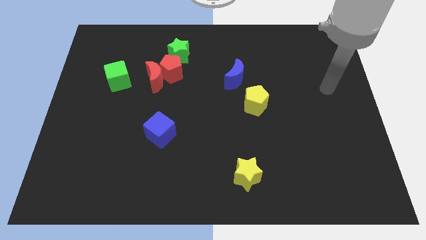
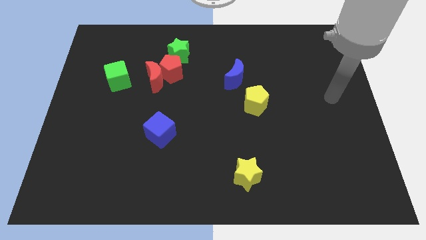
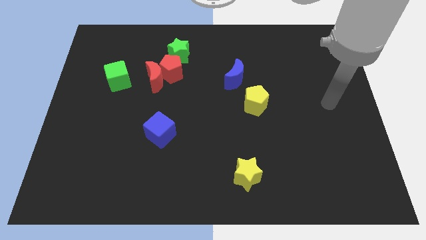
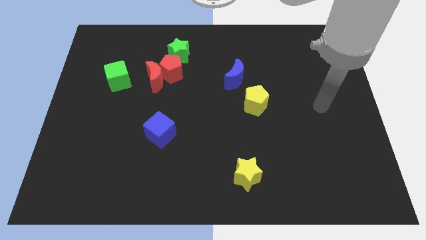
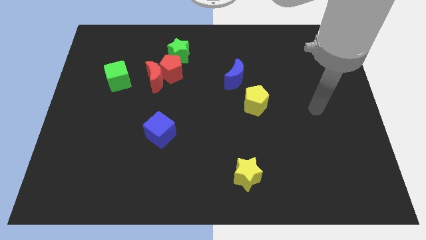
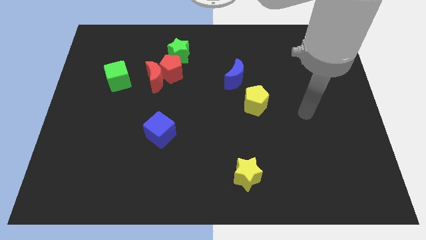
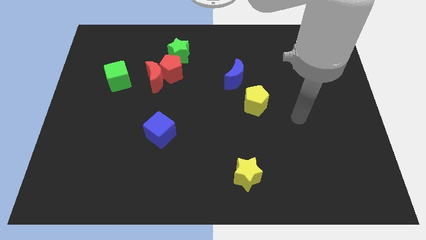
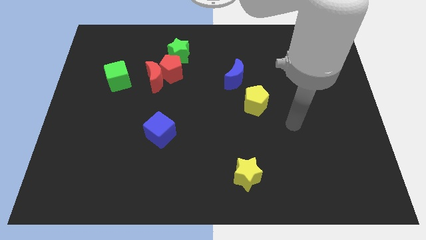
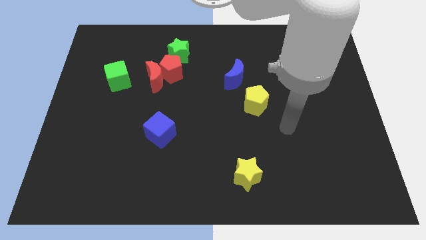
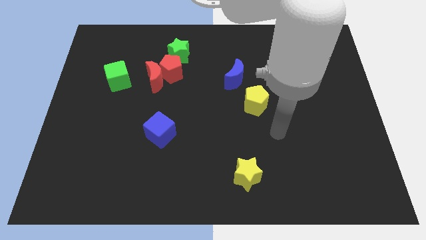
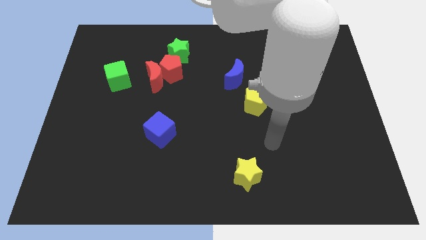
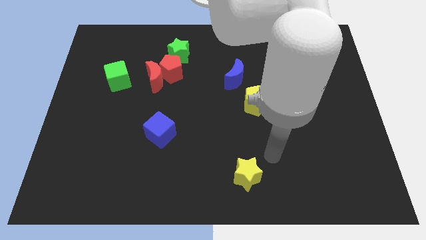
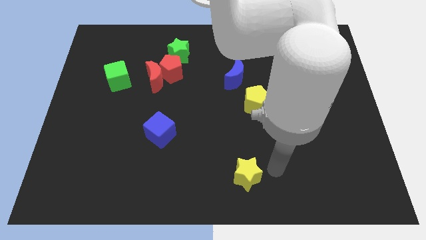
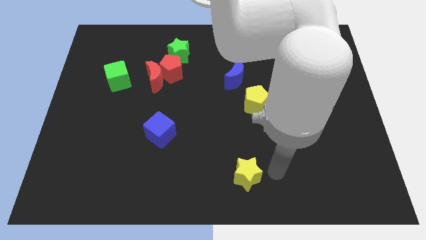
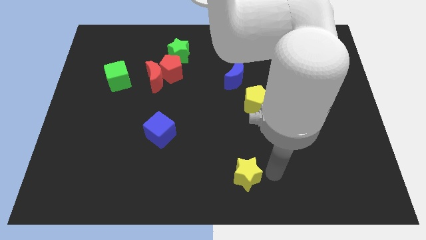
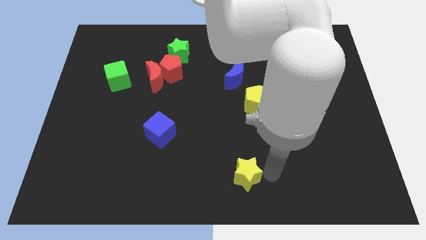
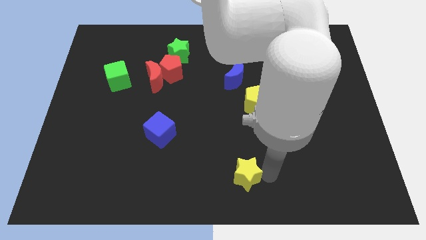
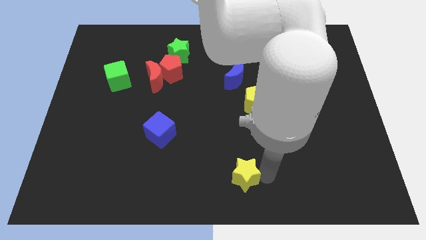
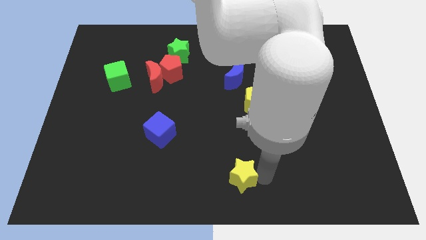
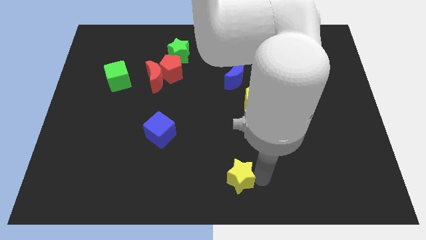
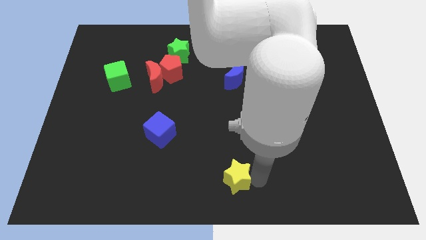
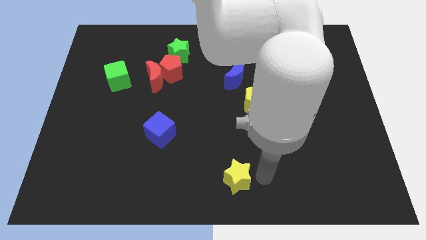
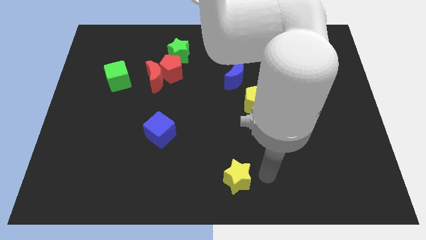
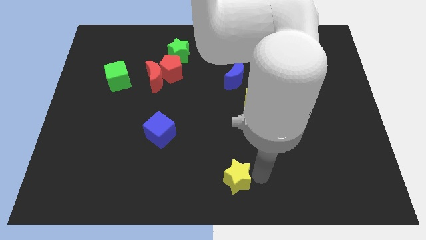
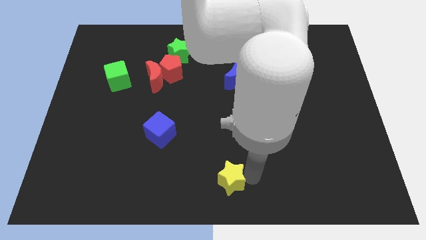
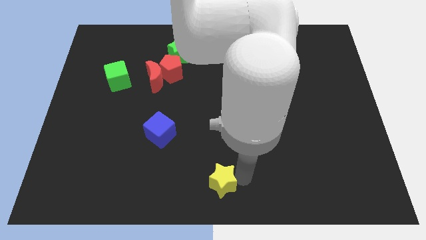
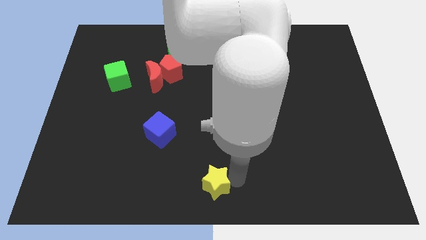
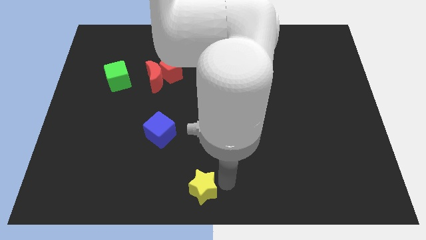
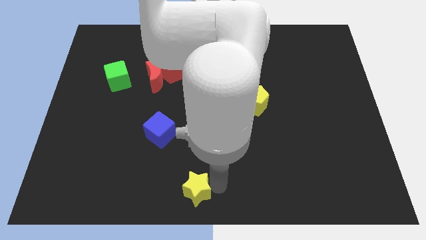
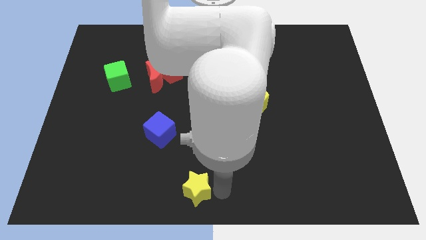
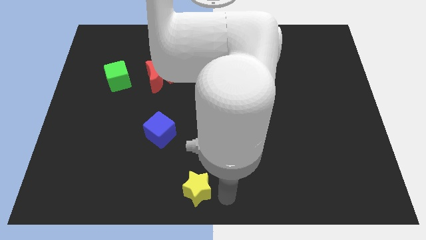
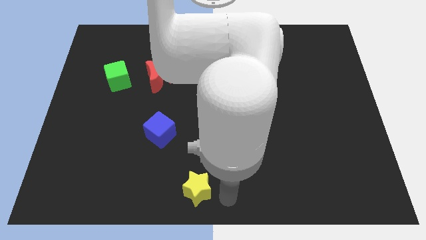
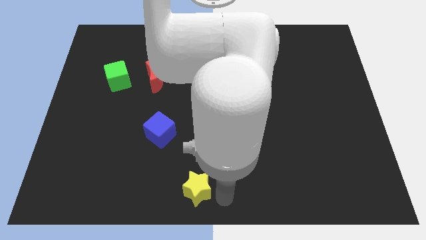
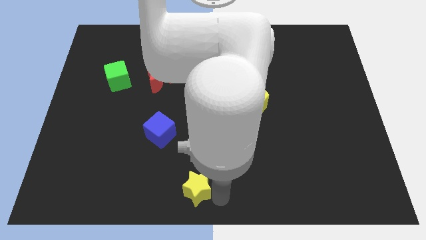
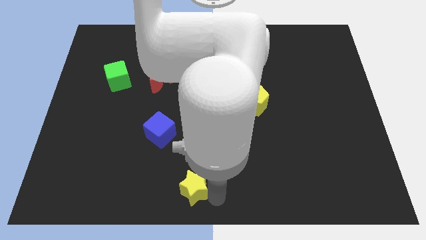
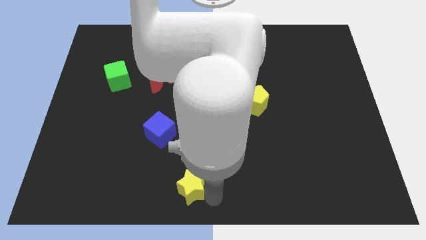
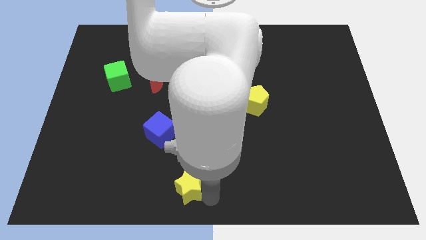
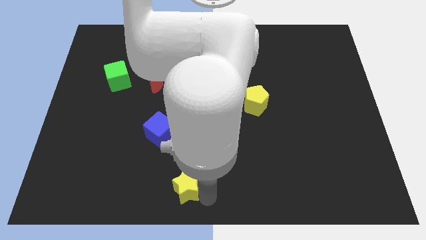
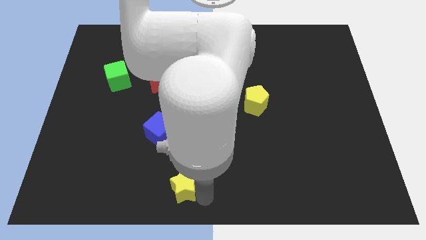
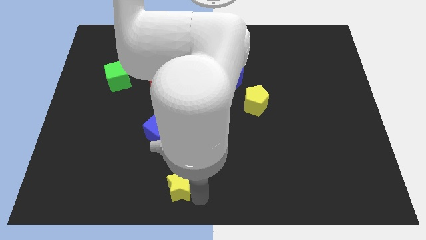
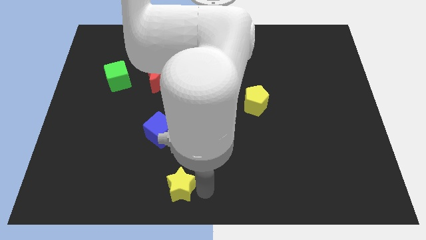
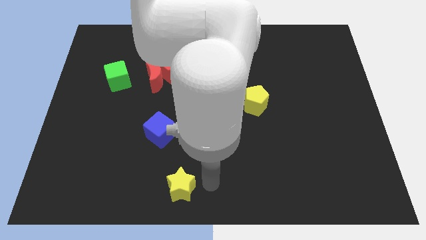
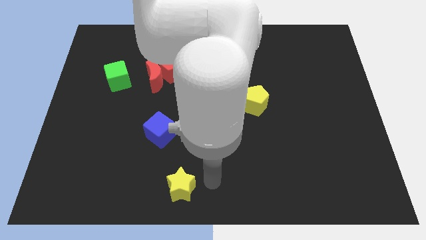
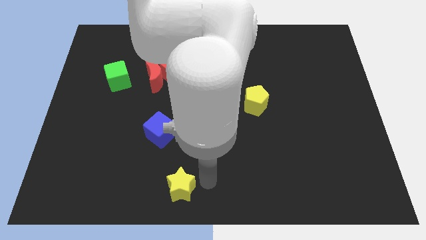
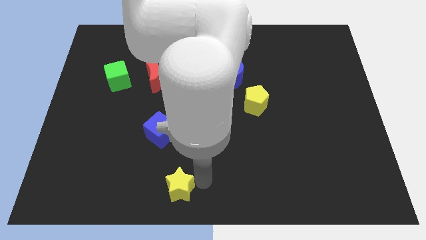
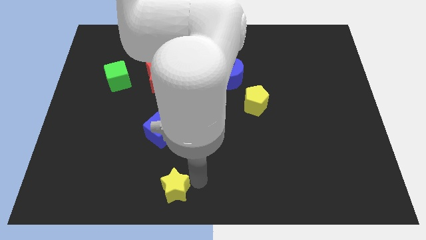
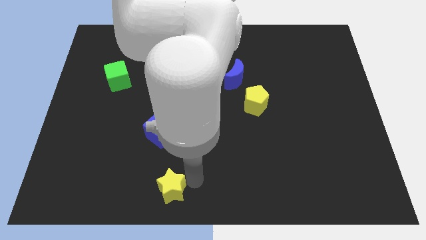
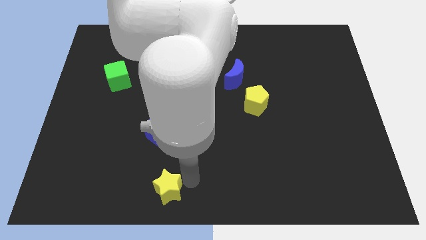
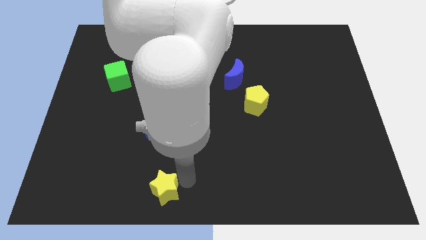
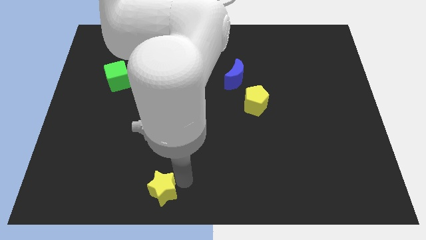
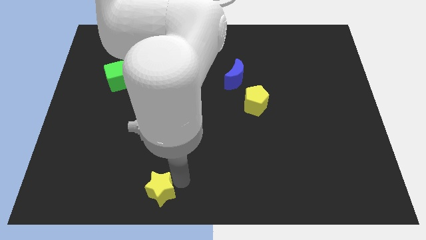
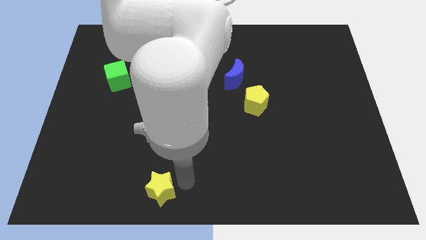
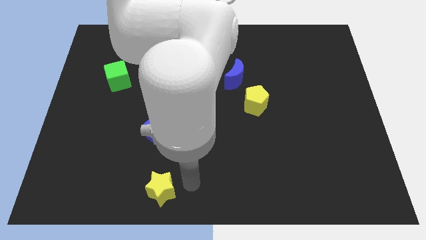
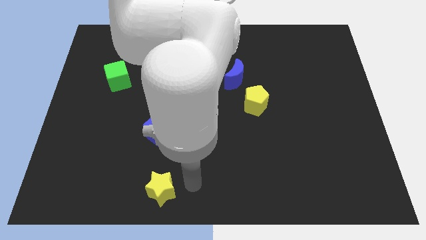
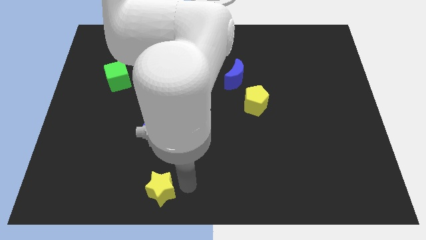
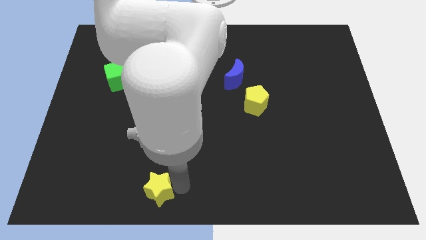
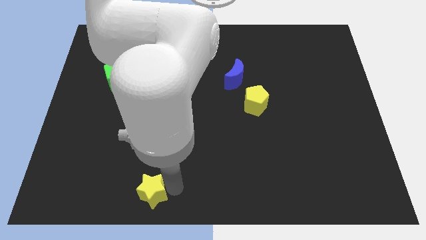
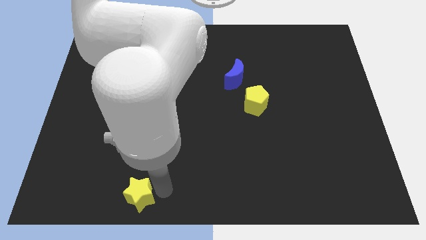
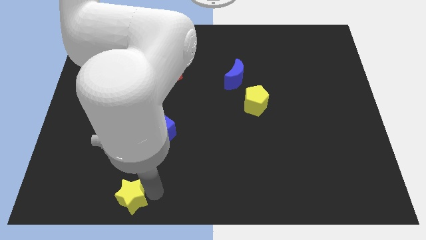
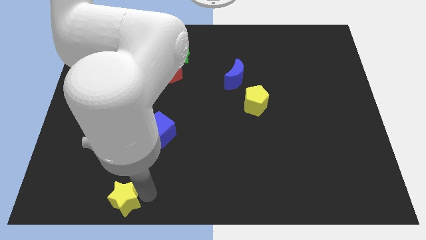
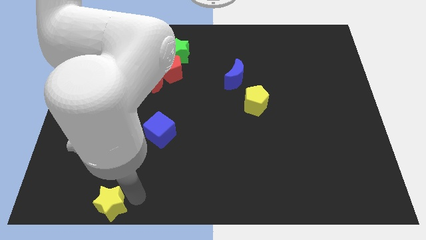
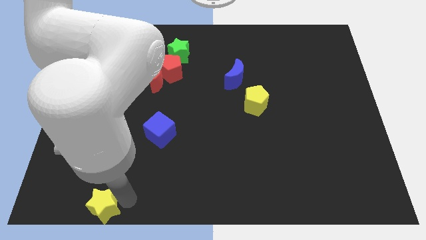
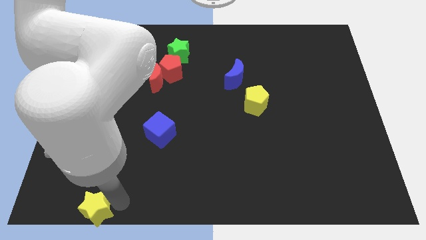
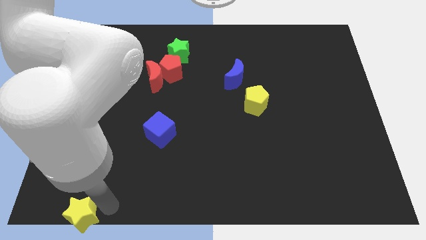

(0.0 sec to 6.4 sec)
move the yellow star to the bottom left of the board
